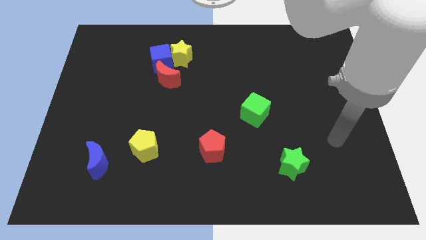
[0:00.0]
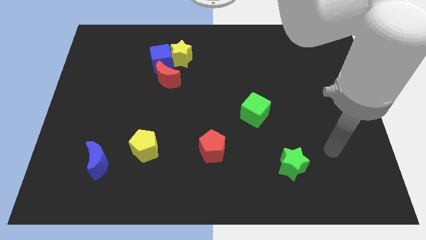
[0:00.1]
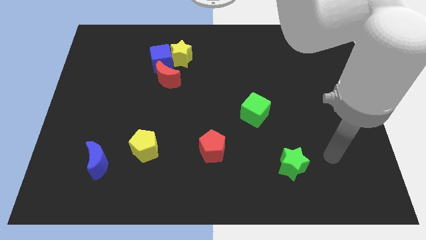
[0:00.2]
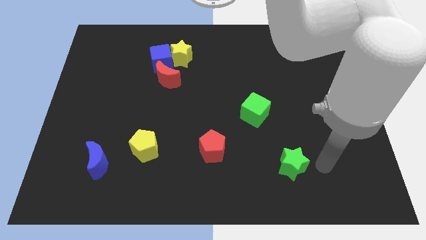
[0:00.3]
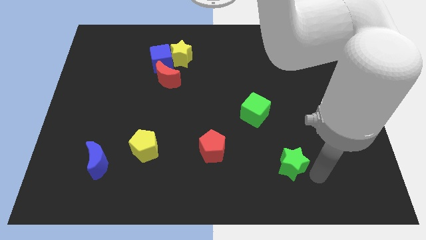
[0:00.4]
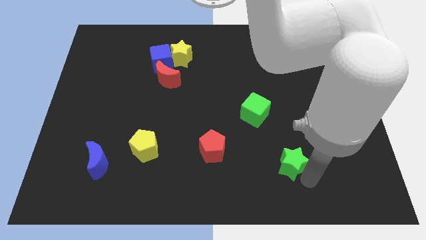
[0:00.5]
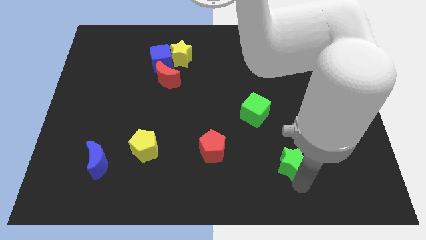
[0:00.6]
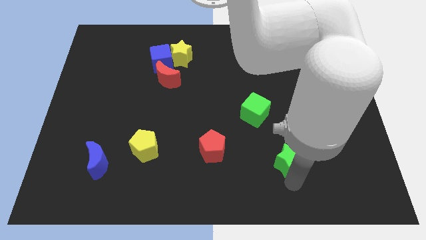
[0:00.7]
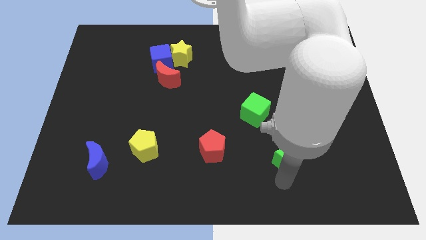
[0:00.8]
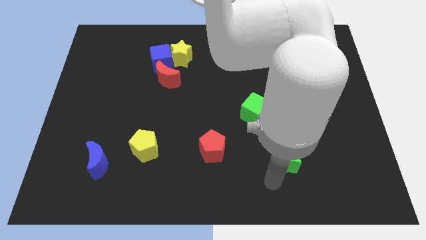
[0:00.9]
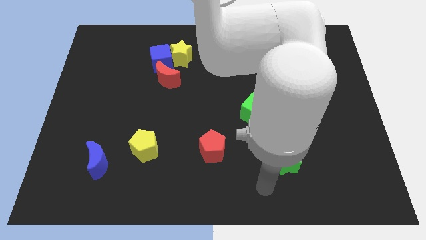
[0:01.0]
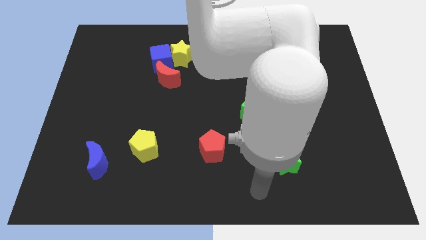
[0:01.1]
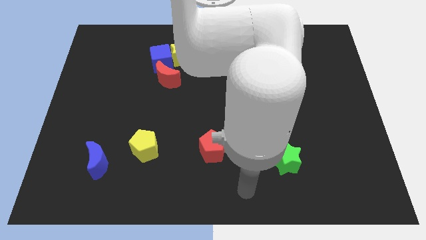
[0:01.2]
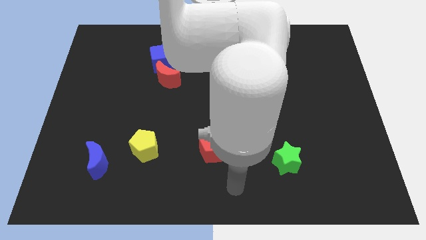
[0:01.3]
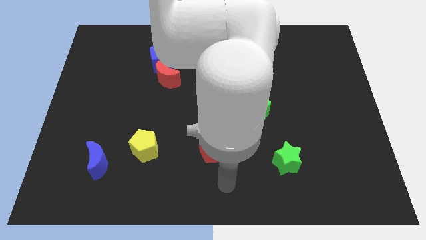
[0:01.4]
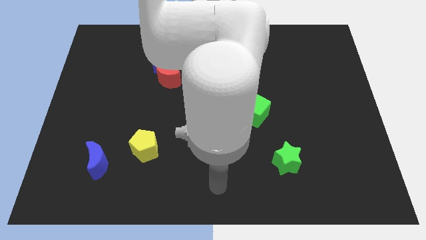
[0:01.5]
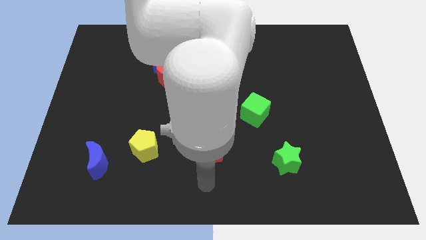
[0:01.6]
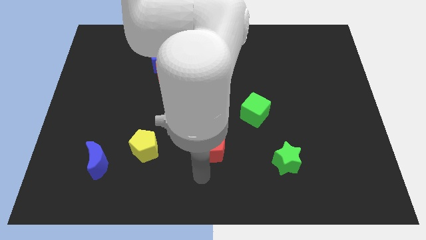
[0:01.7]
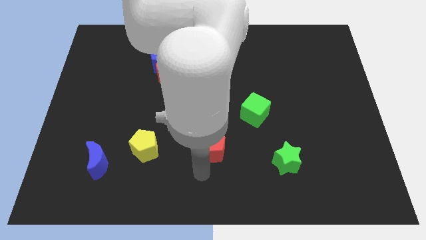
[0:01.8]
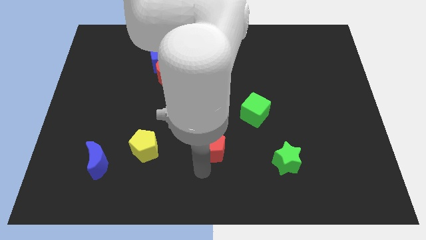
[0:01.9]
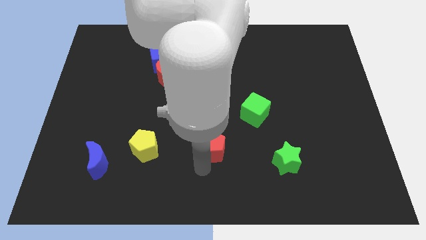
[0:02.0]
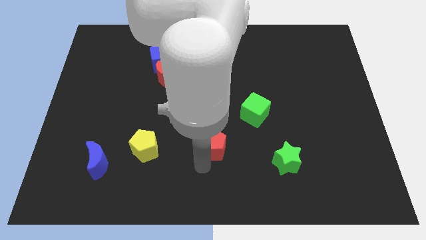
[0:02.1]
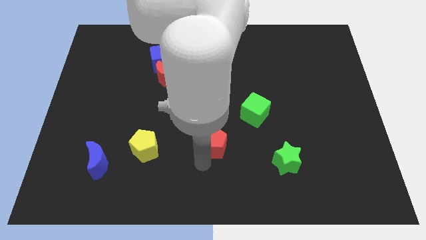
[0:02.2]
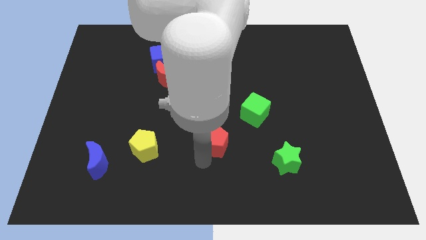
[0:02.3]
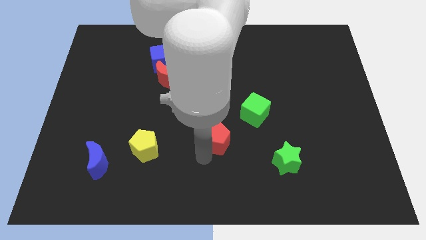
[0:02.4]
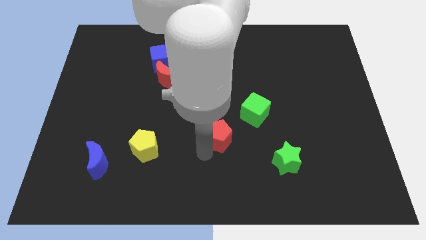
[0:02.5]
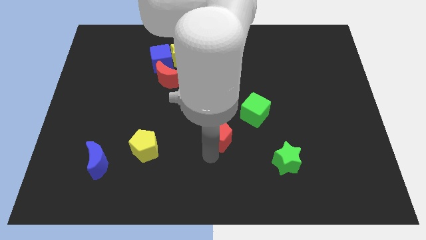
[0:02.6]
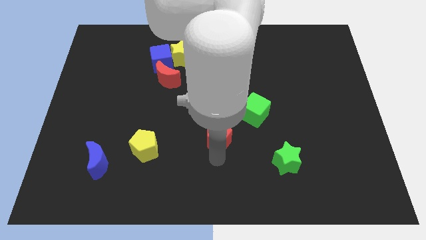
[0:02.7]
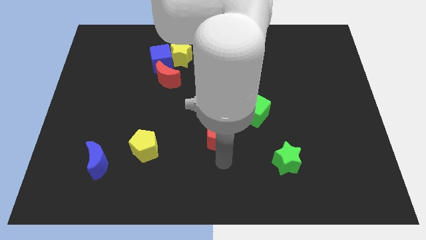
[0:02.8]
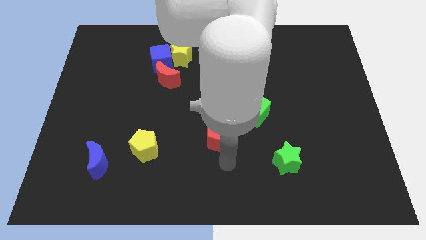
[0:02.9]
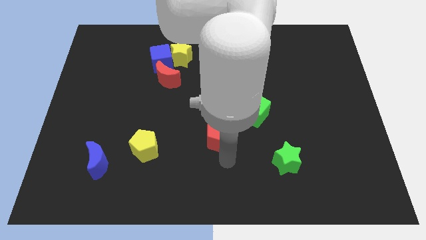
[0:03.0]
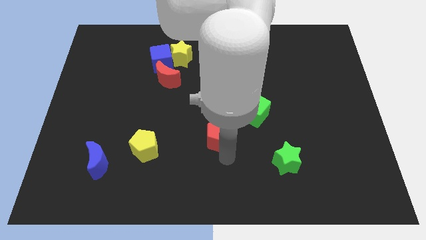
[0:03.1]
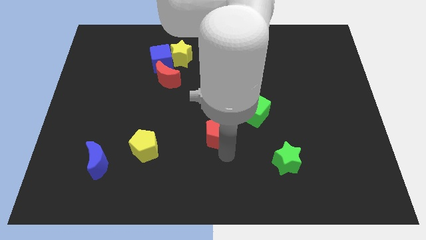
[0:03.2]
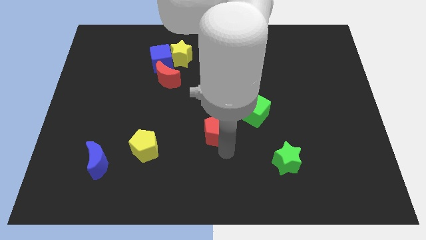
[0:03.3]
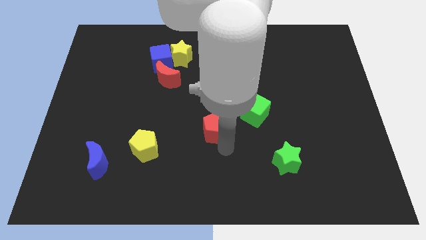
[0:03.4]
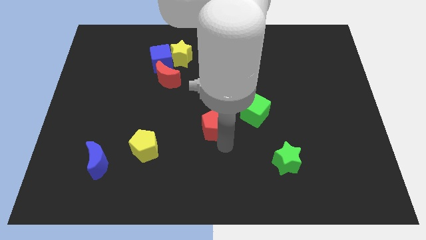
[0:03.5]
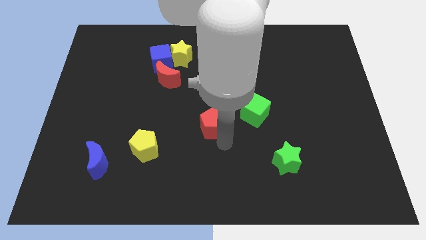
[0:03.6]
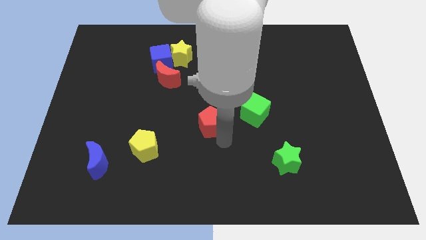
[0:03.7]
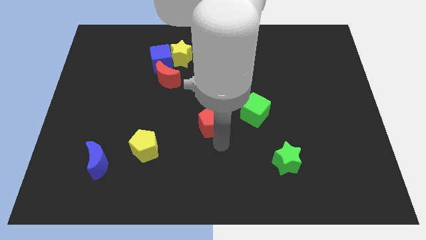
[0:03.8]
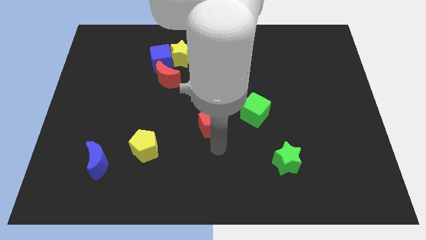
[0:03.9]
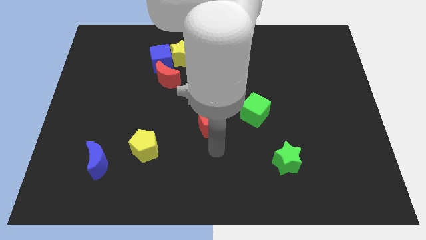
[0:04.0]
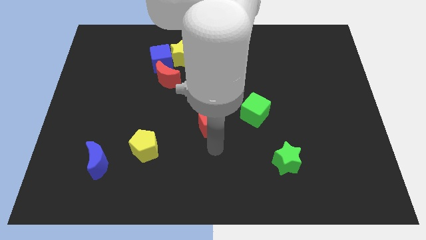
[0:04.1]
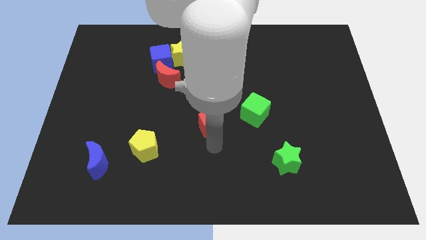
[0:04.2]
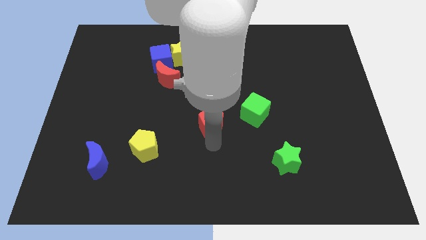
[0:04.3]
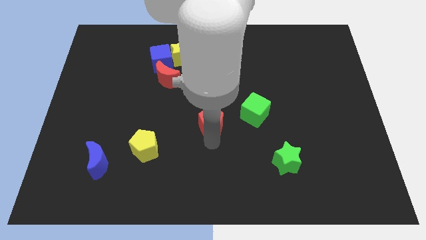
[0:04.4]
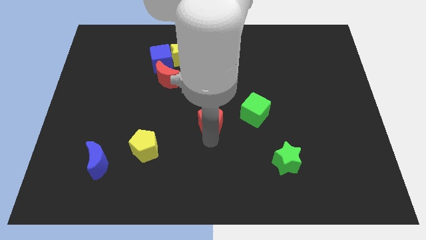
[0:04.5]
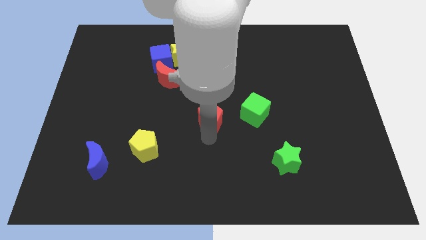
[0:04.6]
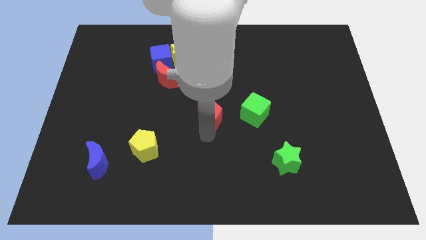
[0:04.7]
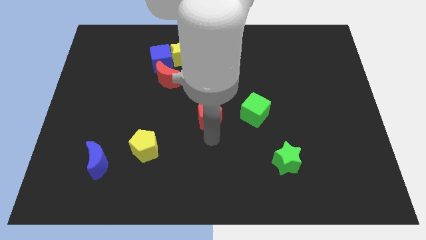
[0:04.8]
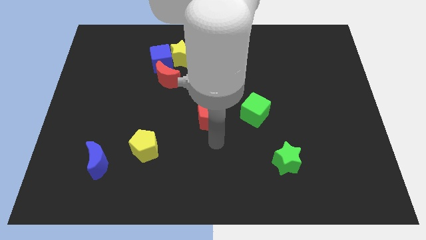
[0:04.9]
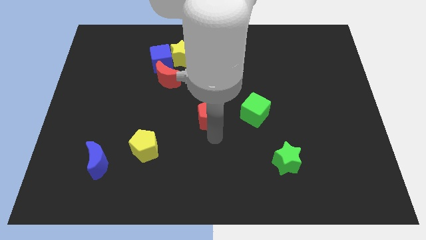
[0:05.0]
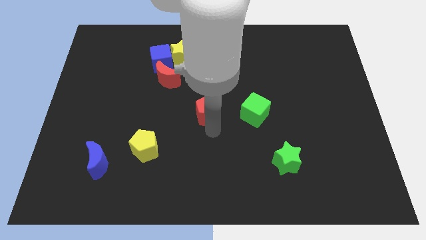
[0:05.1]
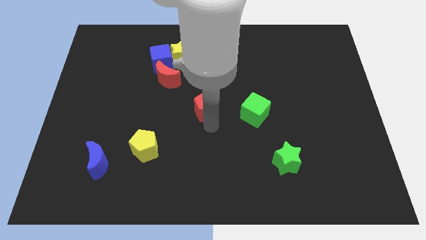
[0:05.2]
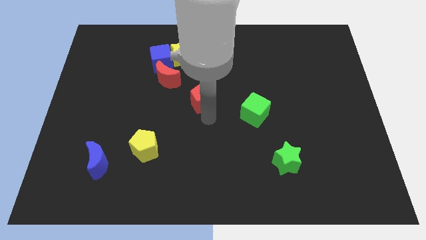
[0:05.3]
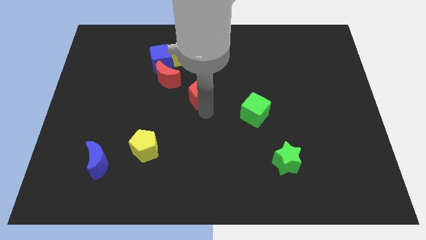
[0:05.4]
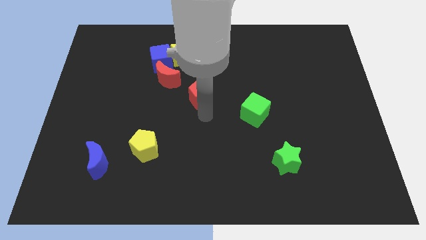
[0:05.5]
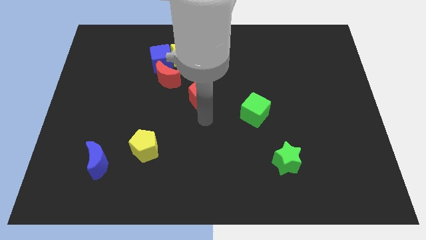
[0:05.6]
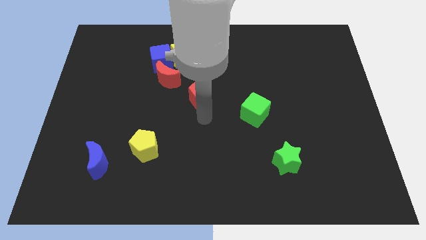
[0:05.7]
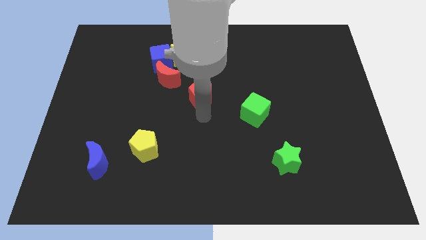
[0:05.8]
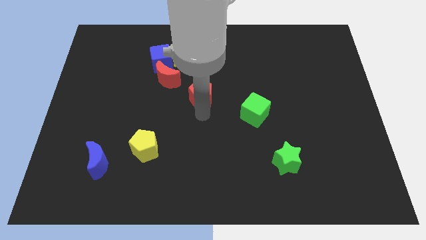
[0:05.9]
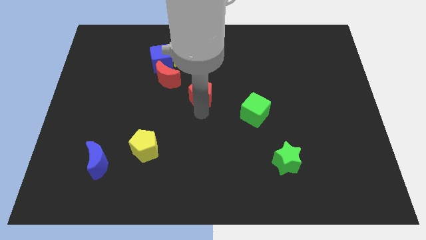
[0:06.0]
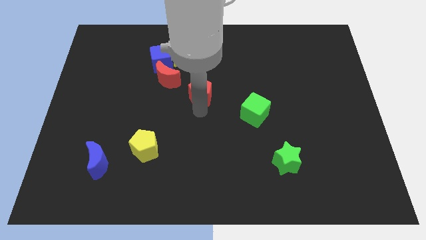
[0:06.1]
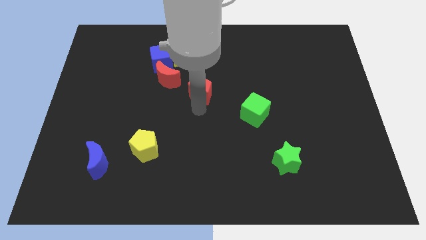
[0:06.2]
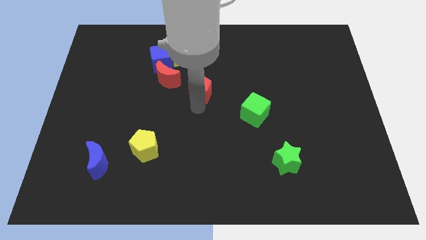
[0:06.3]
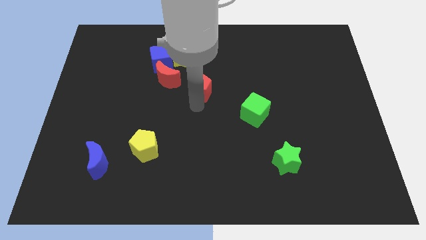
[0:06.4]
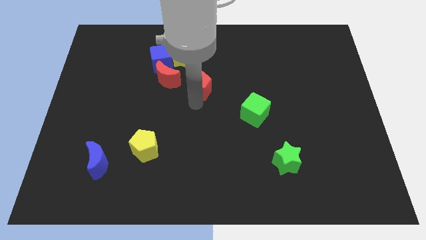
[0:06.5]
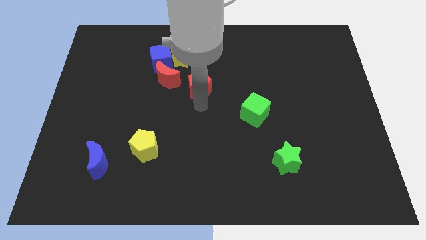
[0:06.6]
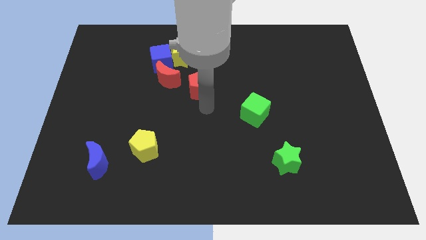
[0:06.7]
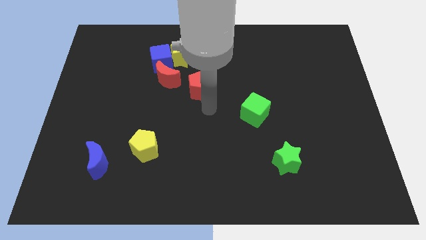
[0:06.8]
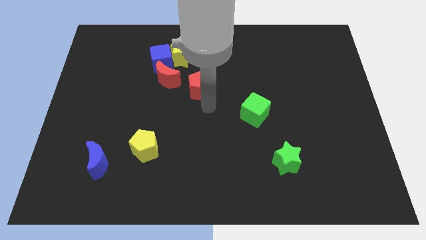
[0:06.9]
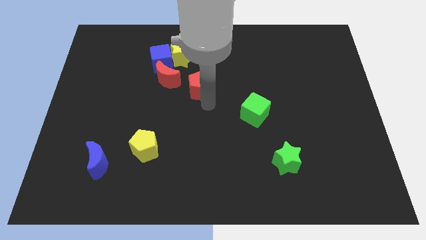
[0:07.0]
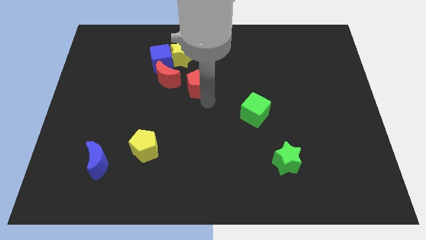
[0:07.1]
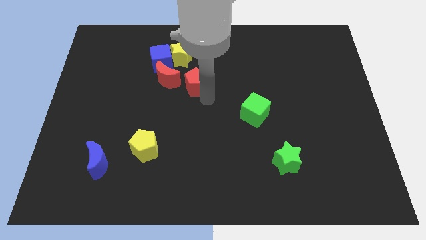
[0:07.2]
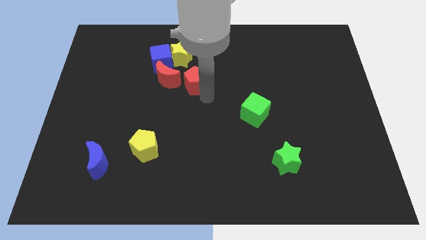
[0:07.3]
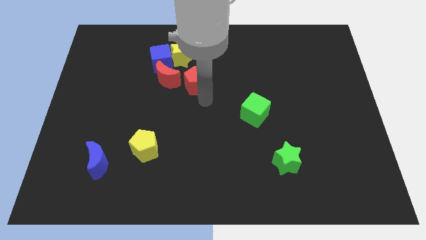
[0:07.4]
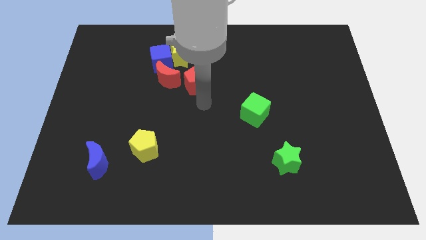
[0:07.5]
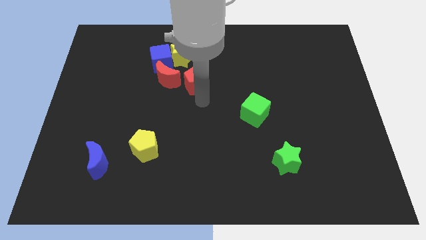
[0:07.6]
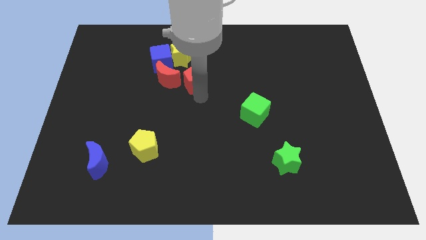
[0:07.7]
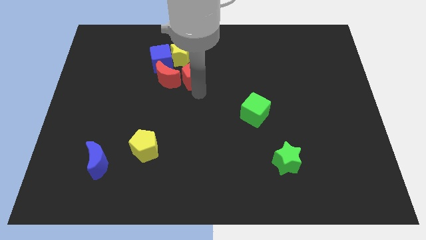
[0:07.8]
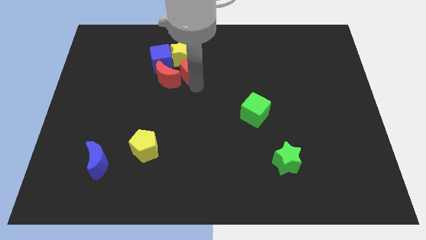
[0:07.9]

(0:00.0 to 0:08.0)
put the red pentagon next to the yellow star
